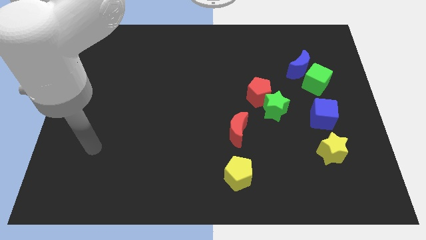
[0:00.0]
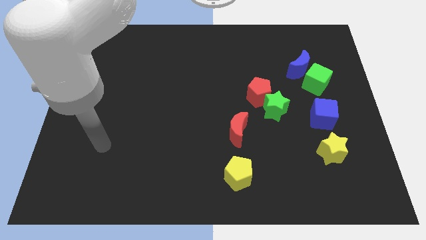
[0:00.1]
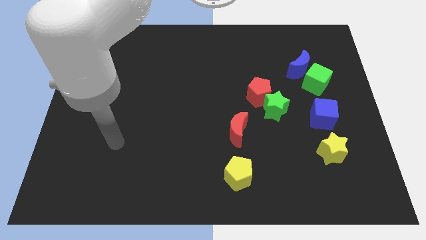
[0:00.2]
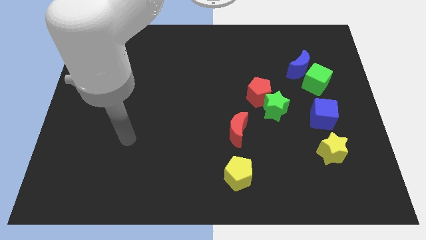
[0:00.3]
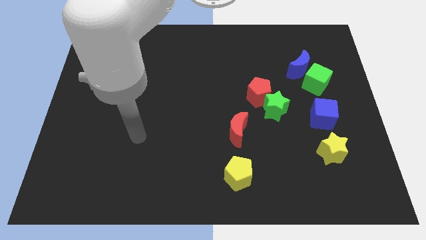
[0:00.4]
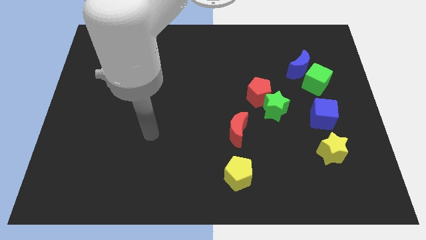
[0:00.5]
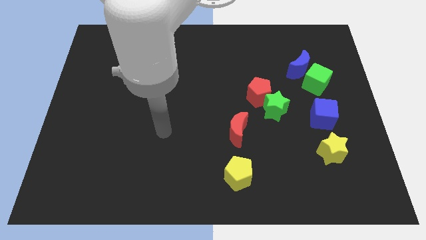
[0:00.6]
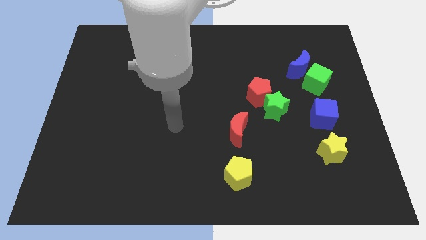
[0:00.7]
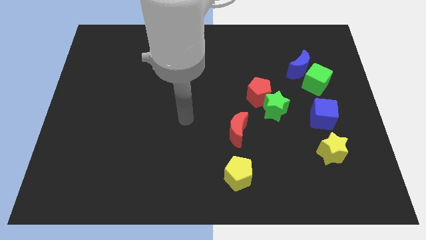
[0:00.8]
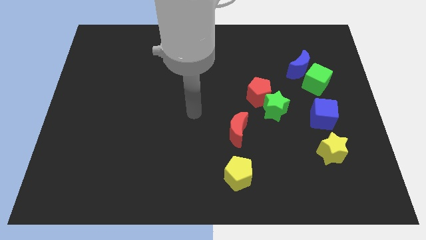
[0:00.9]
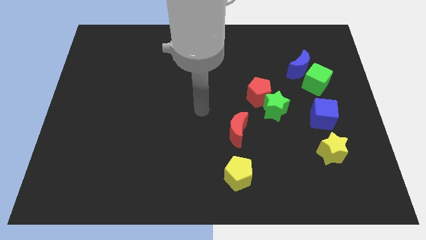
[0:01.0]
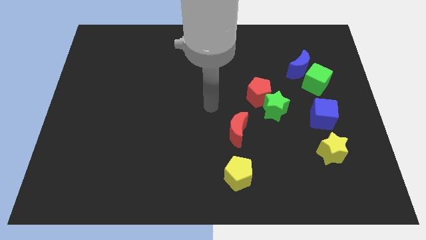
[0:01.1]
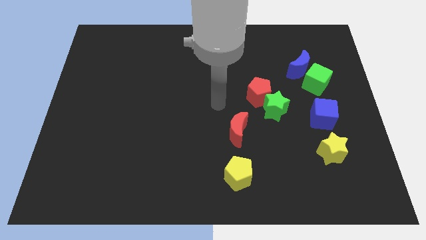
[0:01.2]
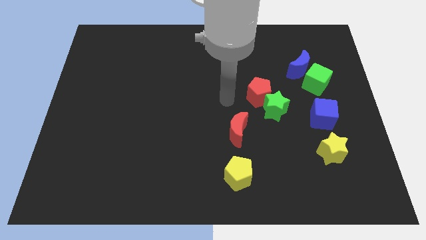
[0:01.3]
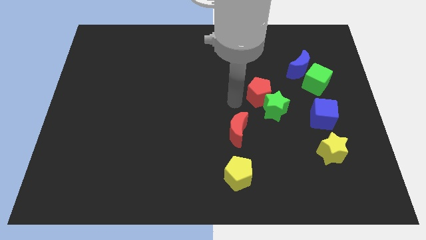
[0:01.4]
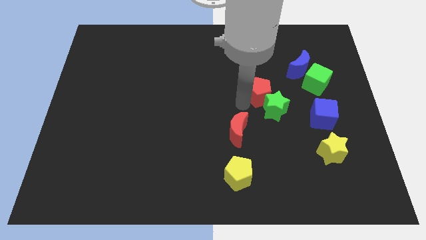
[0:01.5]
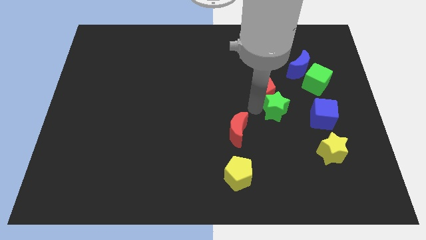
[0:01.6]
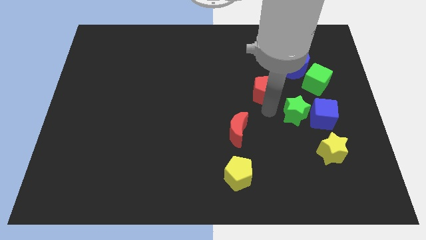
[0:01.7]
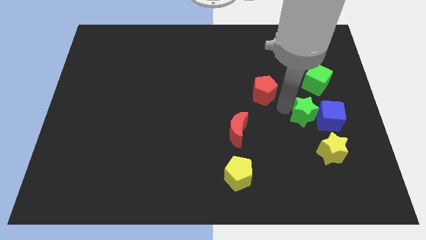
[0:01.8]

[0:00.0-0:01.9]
pull the red pentagon apart from the green star

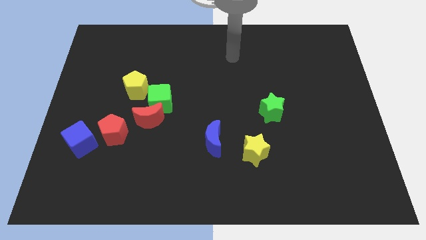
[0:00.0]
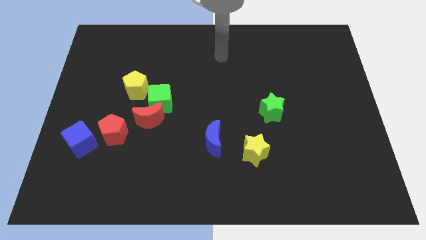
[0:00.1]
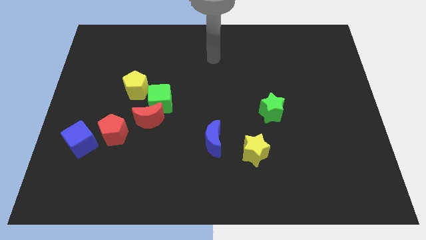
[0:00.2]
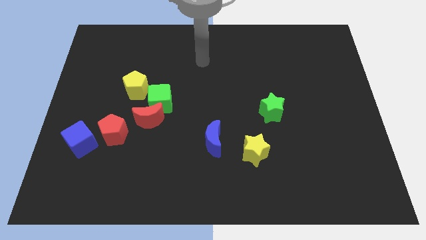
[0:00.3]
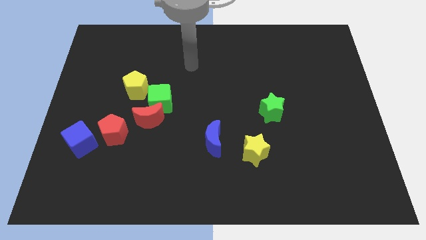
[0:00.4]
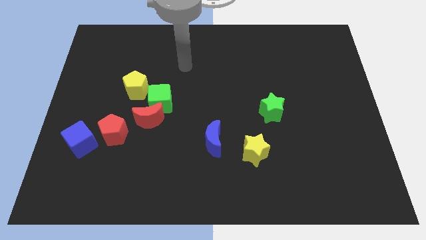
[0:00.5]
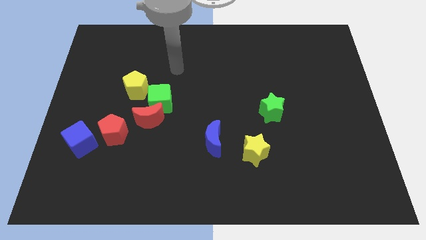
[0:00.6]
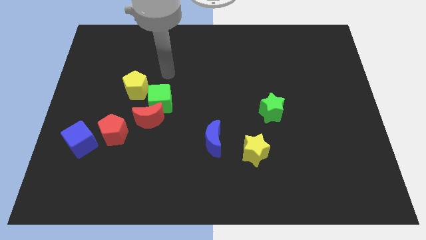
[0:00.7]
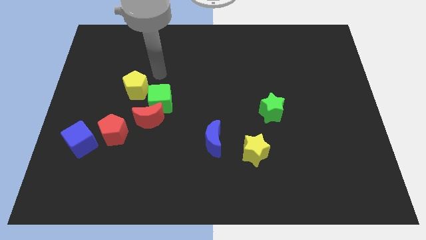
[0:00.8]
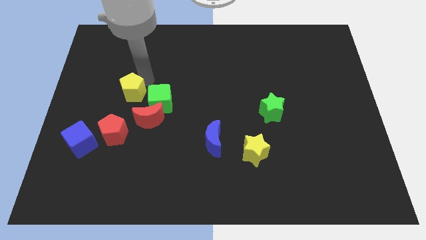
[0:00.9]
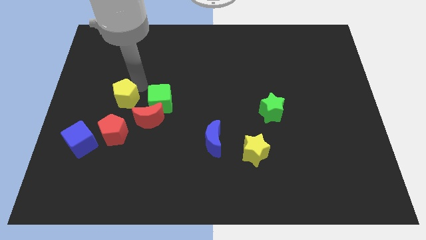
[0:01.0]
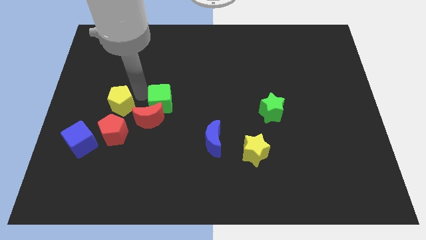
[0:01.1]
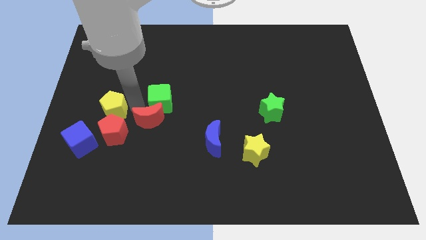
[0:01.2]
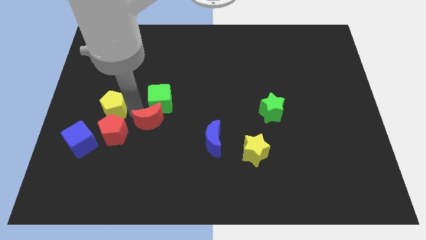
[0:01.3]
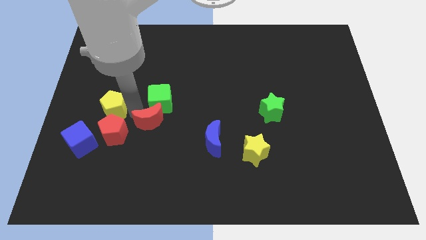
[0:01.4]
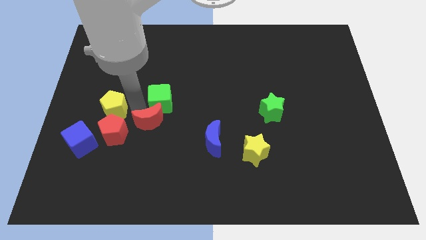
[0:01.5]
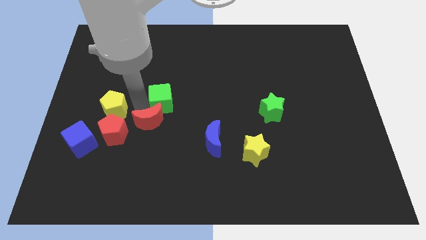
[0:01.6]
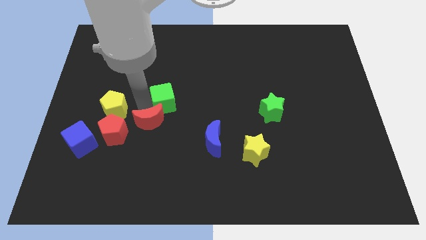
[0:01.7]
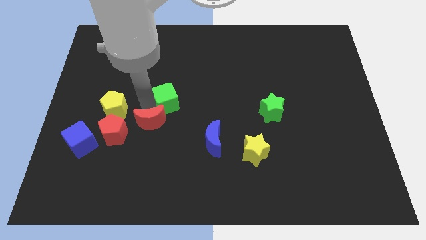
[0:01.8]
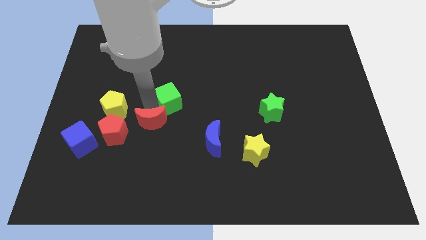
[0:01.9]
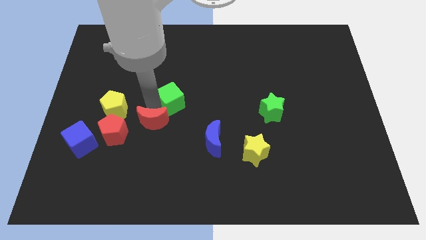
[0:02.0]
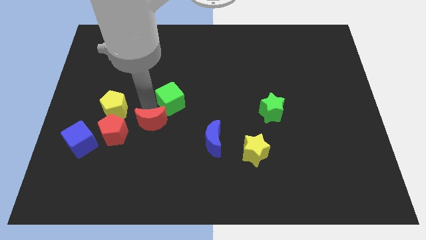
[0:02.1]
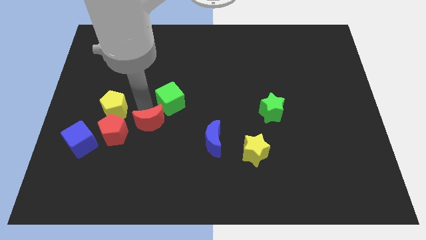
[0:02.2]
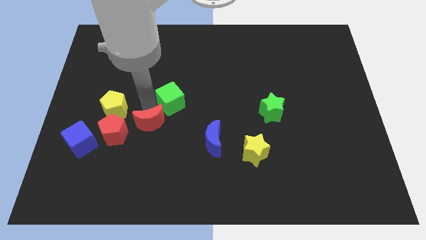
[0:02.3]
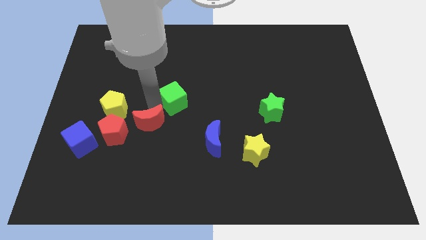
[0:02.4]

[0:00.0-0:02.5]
pull the green cube apart from the red moon and yellow pentagon

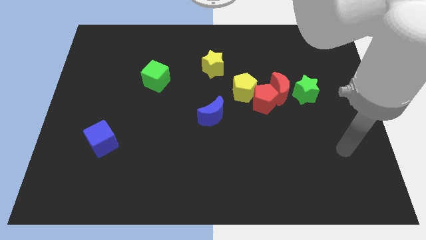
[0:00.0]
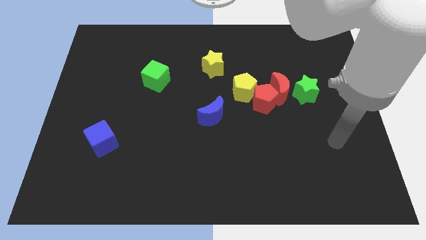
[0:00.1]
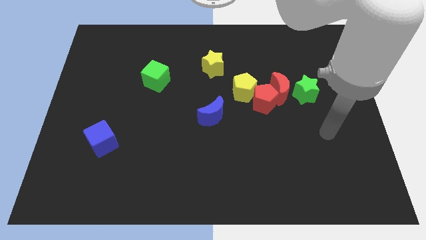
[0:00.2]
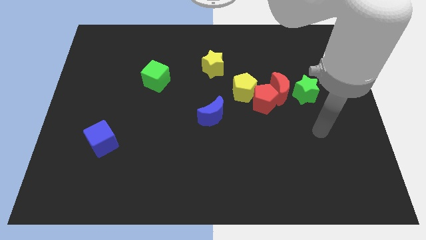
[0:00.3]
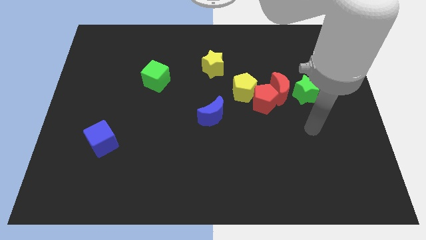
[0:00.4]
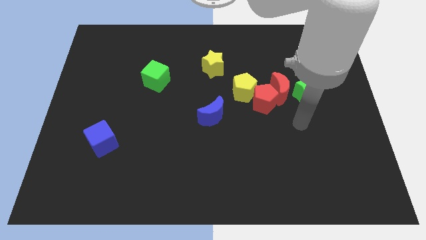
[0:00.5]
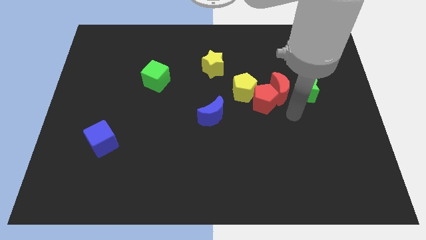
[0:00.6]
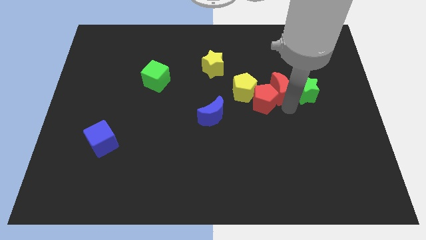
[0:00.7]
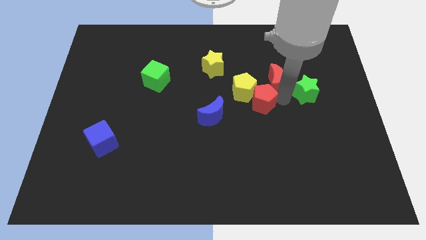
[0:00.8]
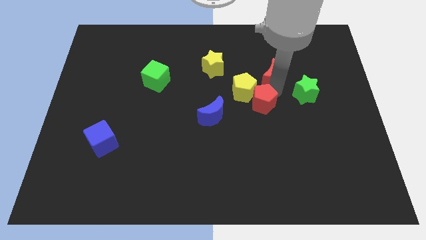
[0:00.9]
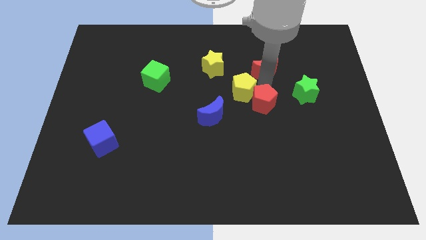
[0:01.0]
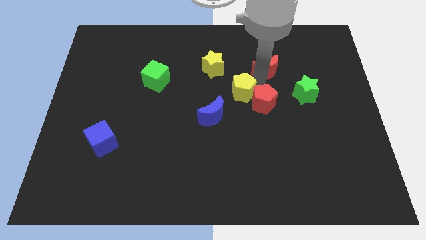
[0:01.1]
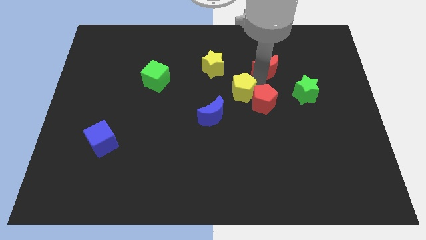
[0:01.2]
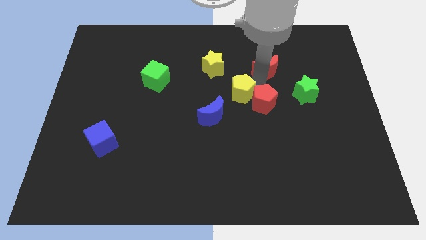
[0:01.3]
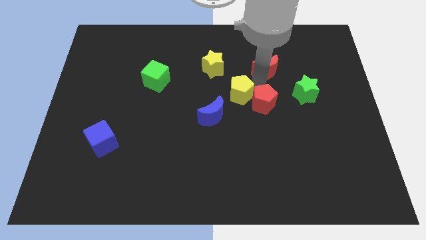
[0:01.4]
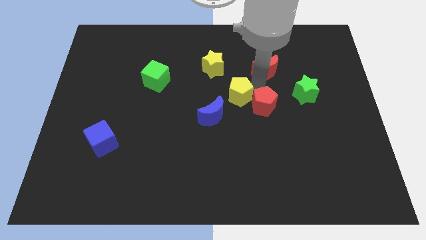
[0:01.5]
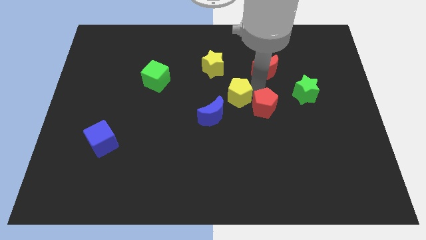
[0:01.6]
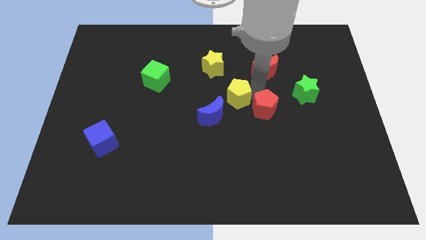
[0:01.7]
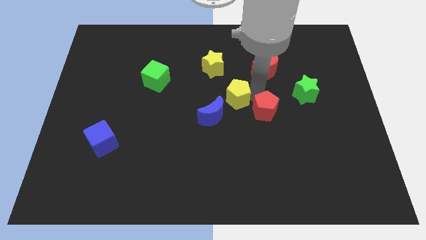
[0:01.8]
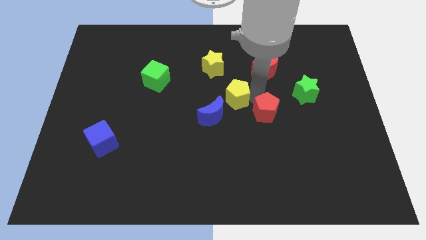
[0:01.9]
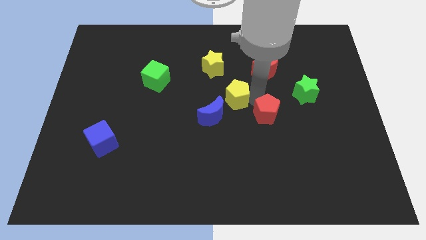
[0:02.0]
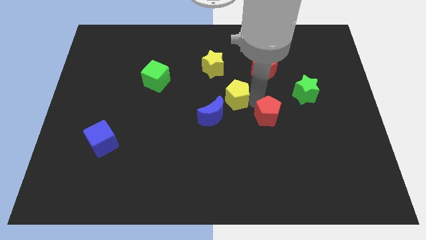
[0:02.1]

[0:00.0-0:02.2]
move the red pentagon away from the red moon and yellow pentagon

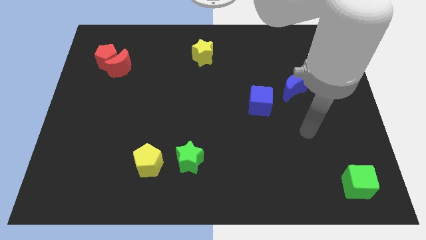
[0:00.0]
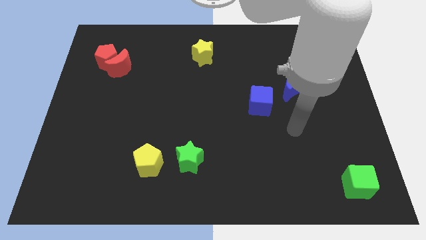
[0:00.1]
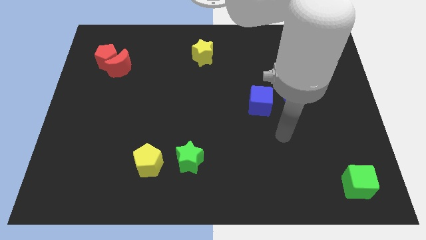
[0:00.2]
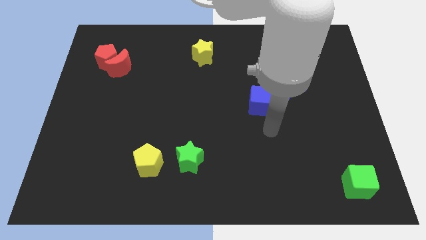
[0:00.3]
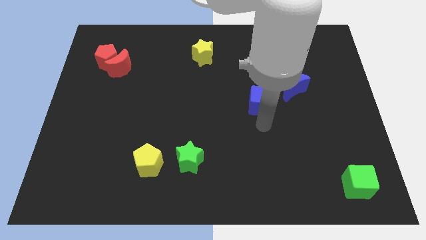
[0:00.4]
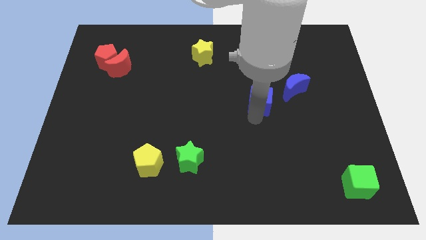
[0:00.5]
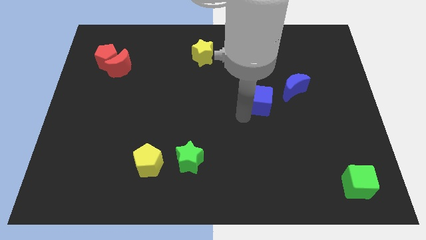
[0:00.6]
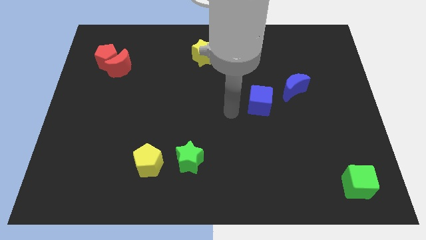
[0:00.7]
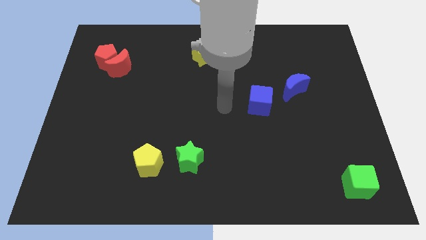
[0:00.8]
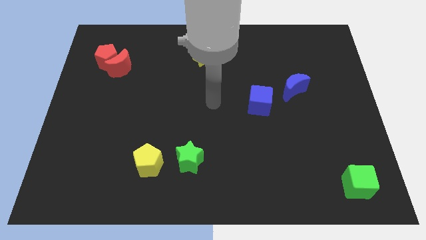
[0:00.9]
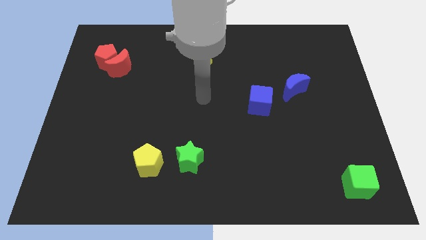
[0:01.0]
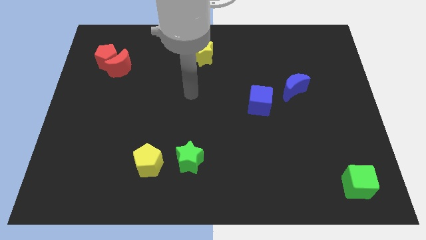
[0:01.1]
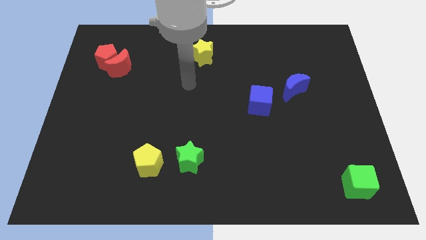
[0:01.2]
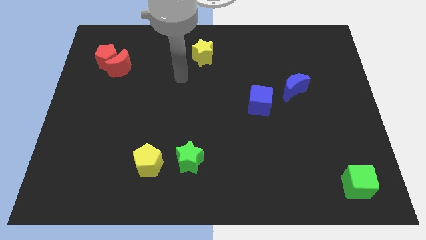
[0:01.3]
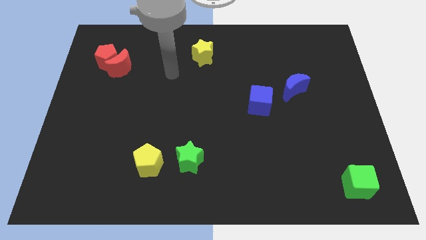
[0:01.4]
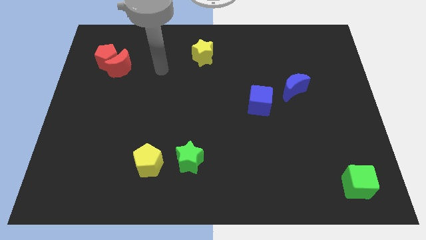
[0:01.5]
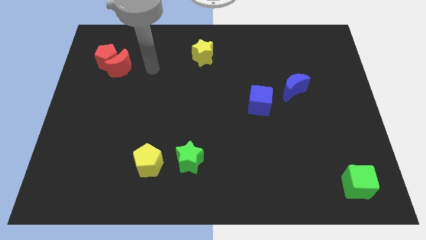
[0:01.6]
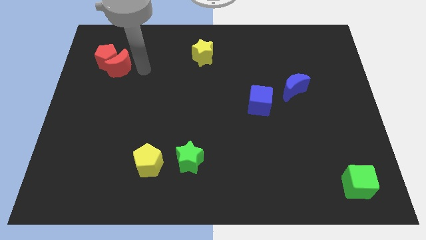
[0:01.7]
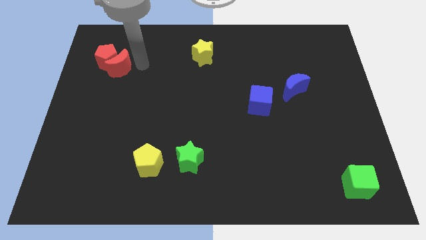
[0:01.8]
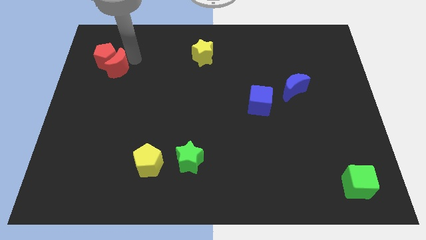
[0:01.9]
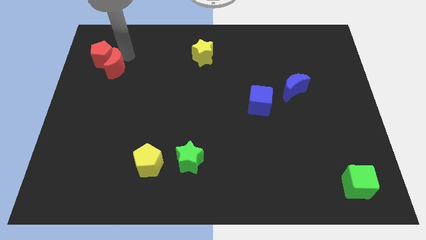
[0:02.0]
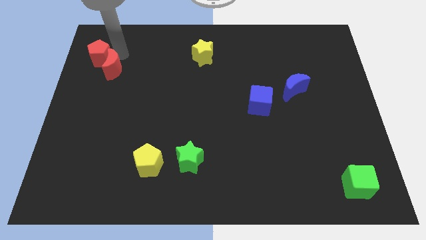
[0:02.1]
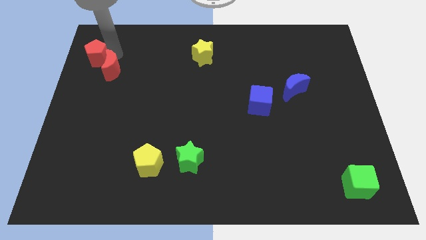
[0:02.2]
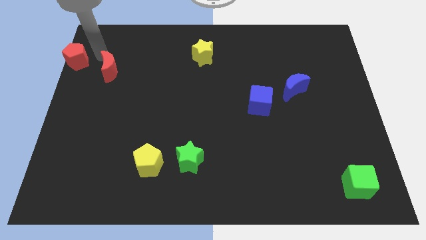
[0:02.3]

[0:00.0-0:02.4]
pull the red moon apart from the red pentagon

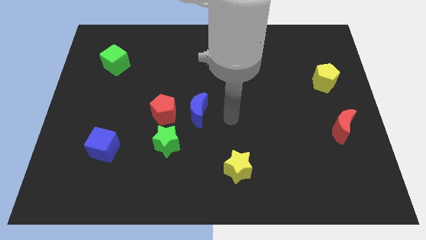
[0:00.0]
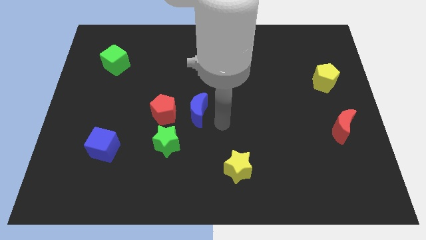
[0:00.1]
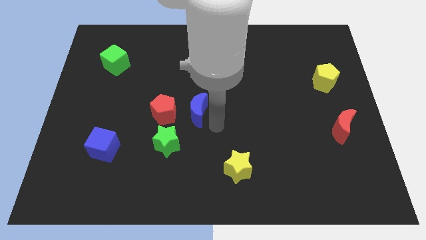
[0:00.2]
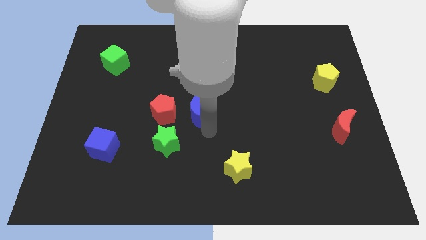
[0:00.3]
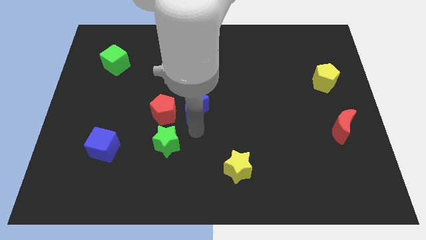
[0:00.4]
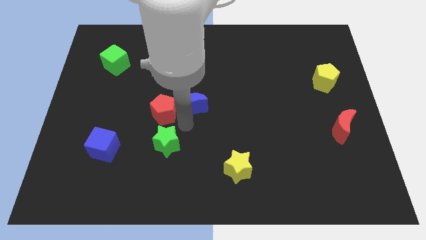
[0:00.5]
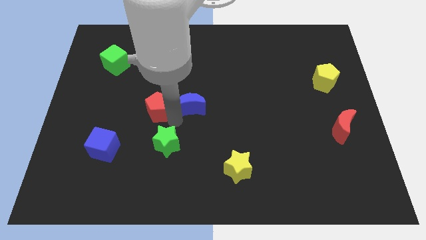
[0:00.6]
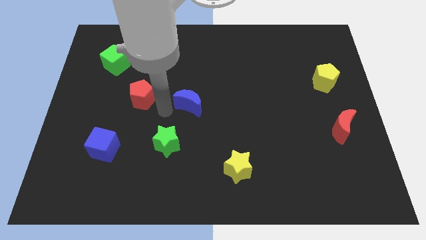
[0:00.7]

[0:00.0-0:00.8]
separate the blue moon from the red pentagon
